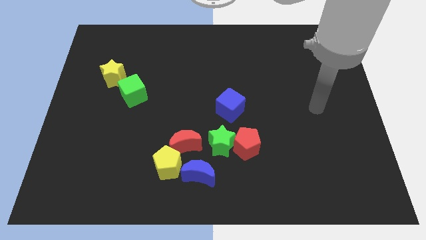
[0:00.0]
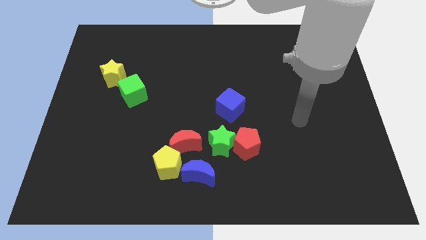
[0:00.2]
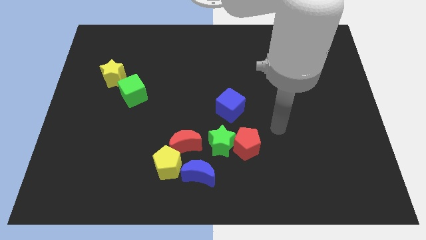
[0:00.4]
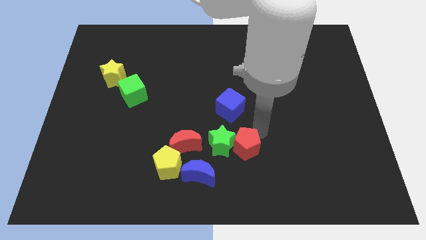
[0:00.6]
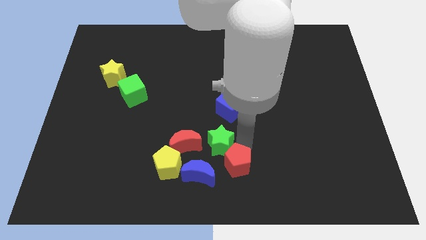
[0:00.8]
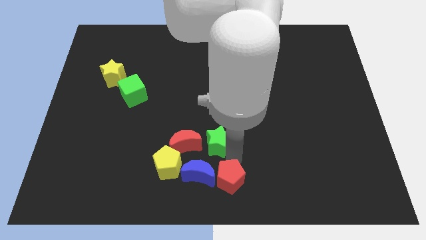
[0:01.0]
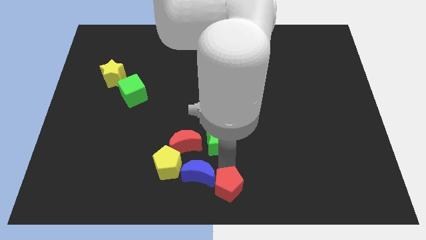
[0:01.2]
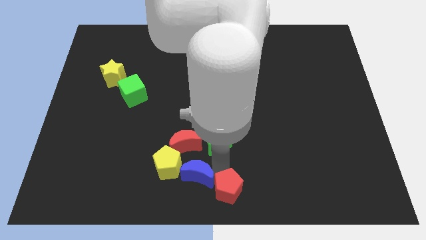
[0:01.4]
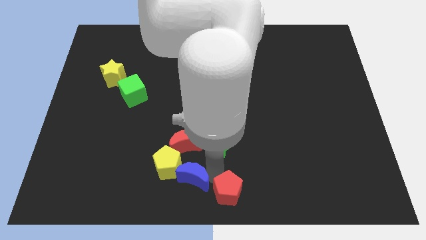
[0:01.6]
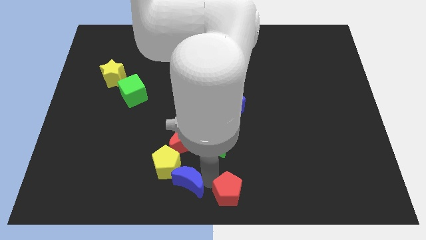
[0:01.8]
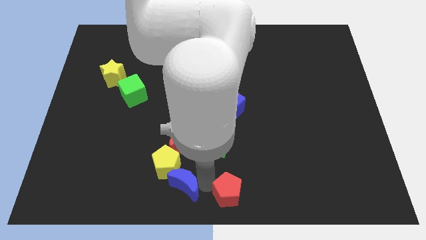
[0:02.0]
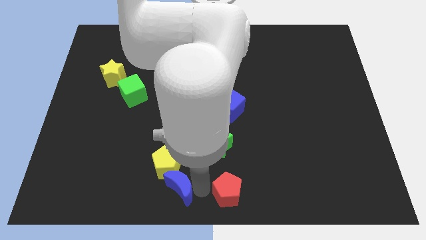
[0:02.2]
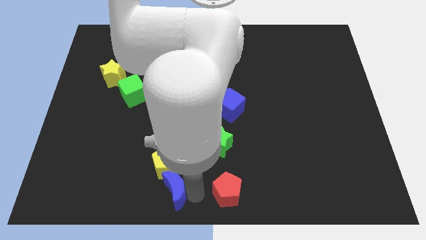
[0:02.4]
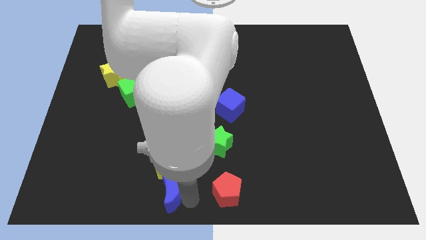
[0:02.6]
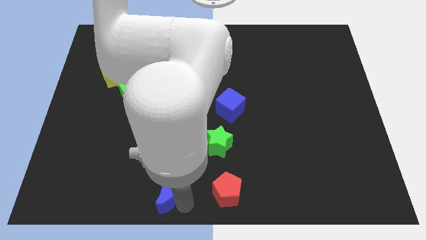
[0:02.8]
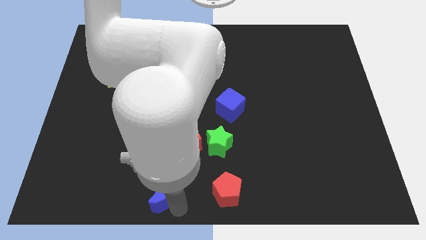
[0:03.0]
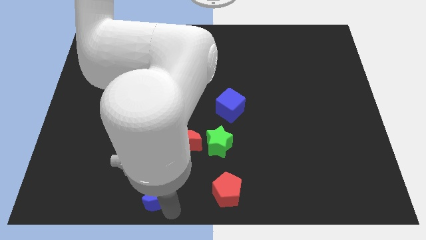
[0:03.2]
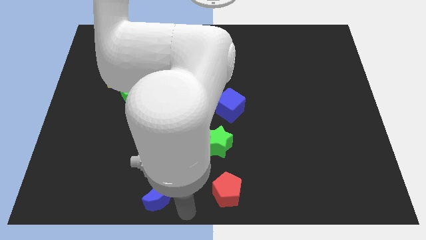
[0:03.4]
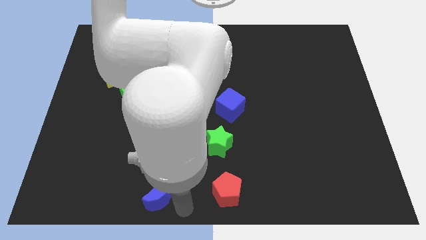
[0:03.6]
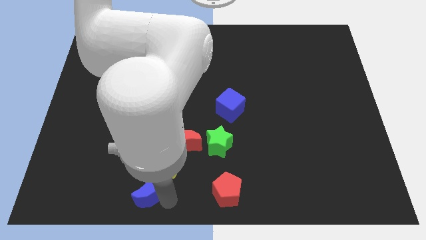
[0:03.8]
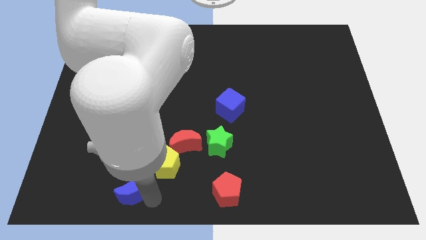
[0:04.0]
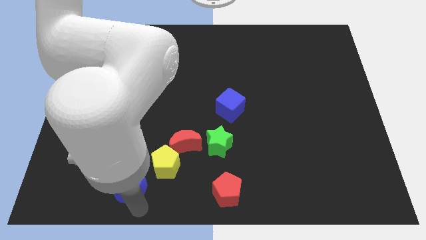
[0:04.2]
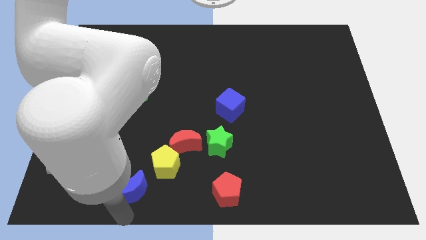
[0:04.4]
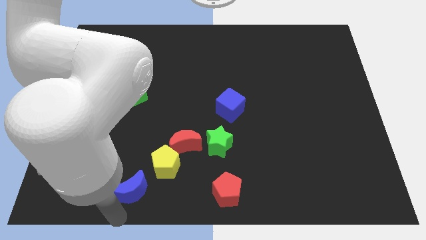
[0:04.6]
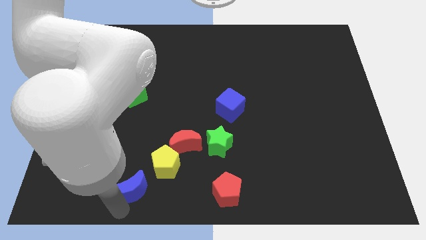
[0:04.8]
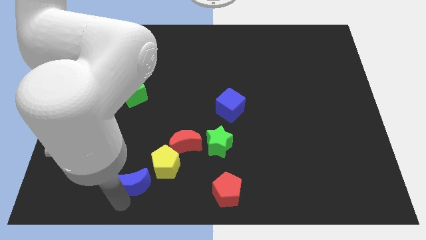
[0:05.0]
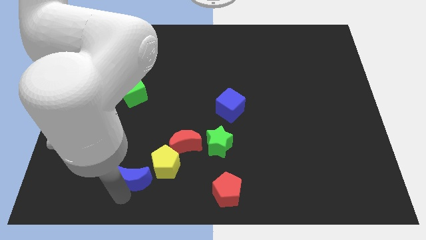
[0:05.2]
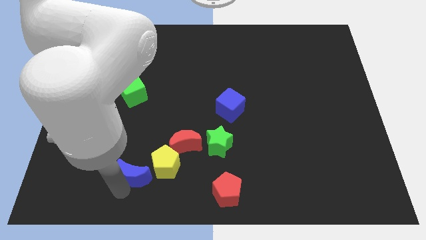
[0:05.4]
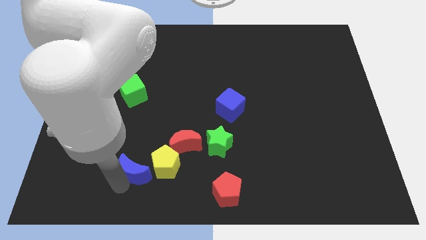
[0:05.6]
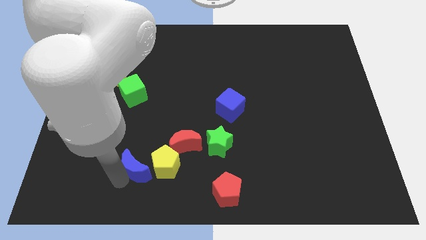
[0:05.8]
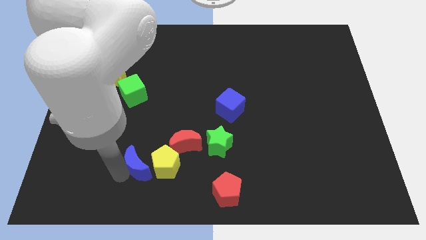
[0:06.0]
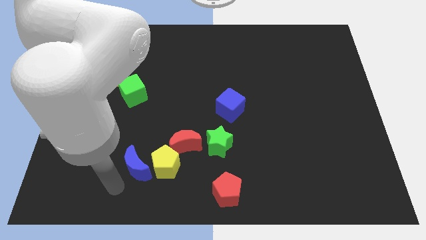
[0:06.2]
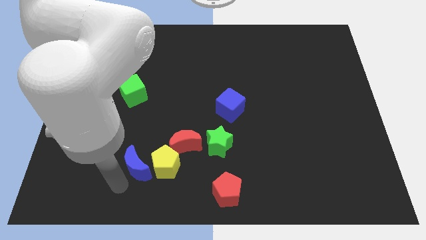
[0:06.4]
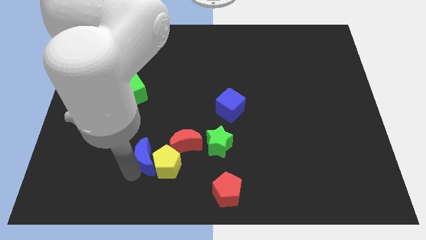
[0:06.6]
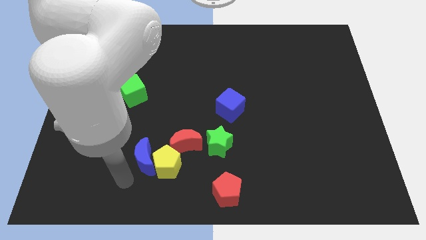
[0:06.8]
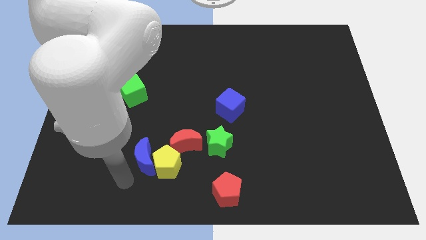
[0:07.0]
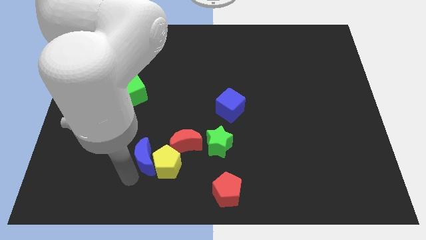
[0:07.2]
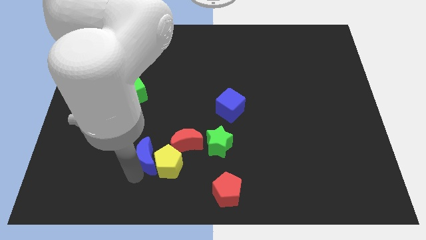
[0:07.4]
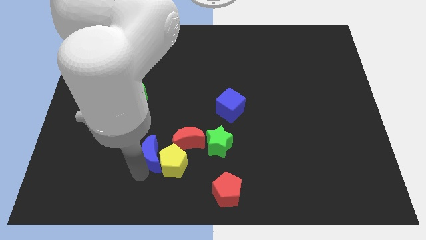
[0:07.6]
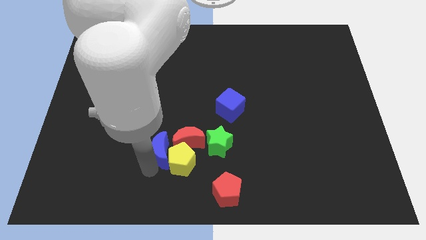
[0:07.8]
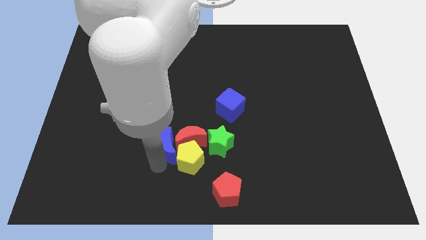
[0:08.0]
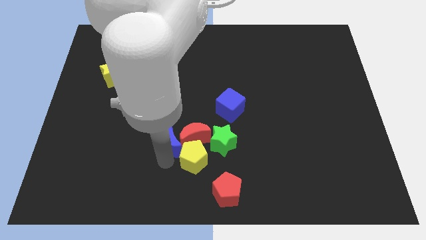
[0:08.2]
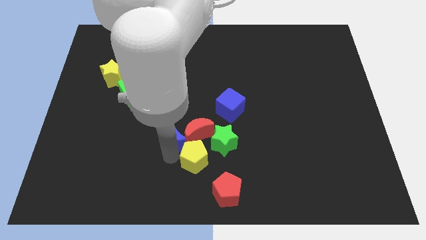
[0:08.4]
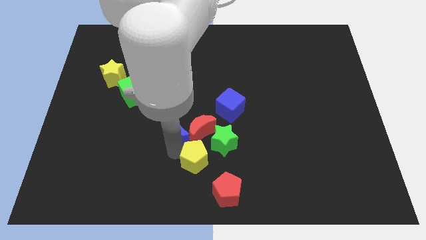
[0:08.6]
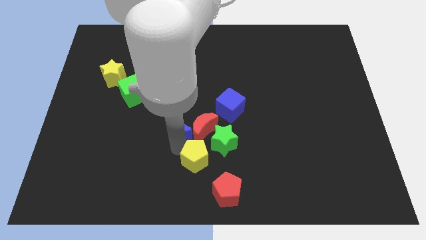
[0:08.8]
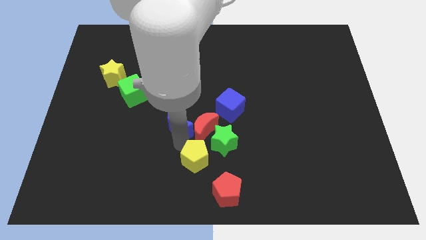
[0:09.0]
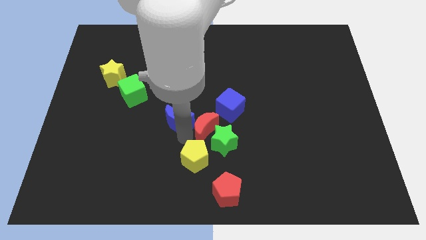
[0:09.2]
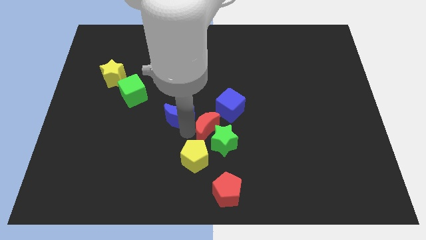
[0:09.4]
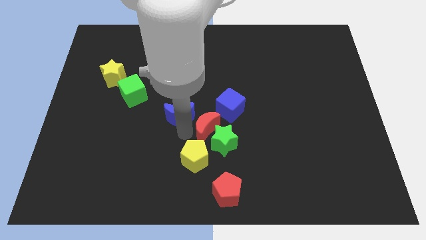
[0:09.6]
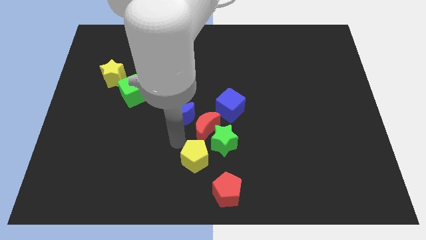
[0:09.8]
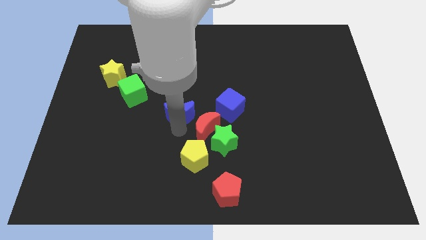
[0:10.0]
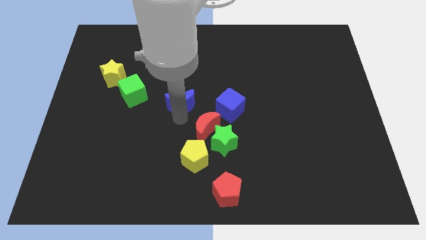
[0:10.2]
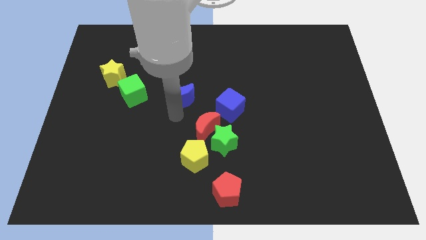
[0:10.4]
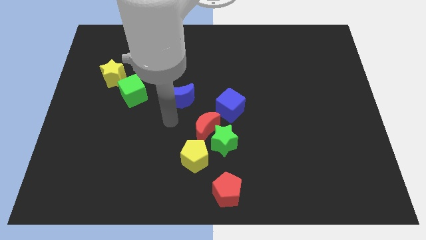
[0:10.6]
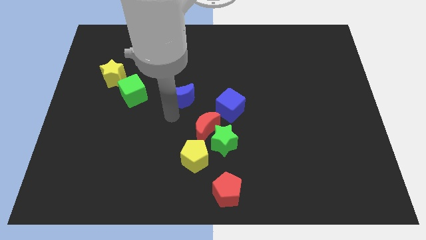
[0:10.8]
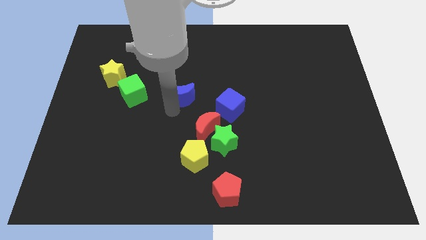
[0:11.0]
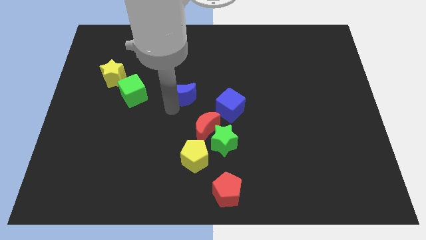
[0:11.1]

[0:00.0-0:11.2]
push the blue moon upwards

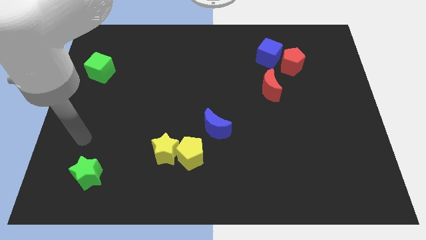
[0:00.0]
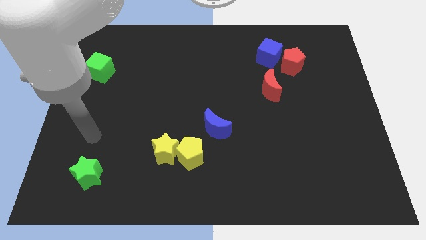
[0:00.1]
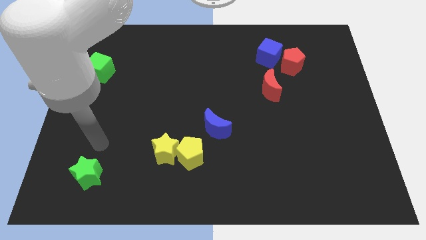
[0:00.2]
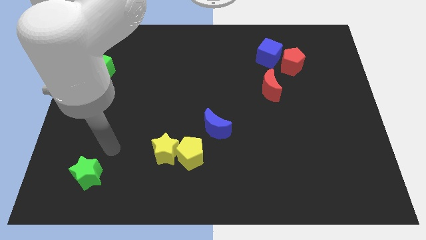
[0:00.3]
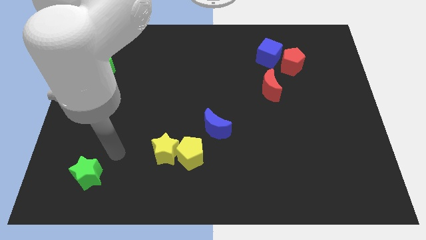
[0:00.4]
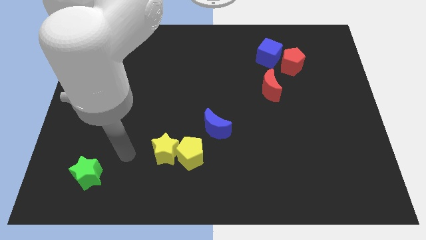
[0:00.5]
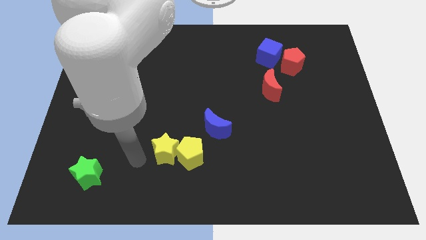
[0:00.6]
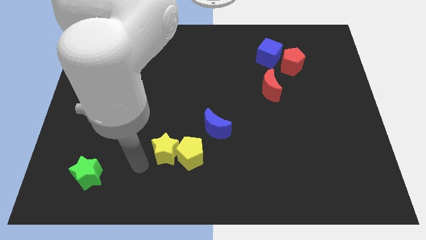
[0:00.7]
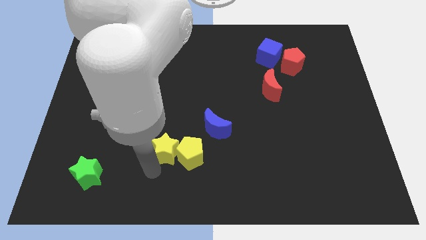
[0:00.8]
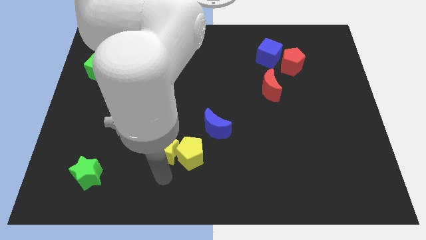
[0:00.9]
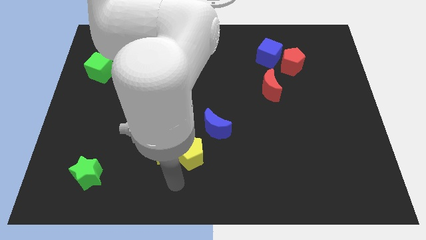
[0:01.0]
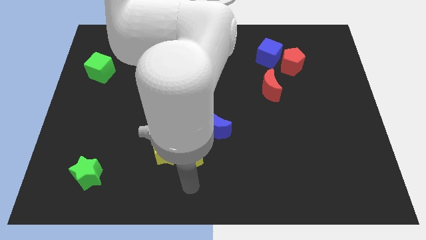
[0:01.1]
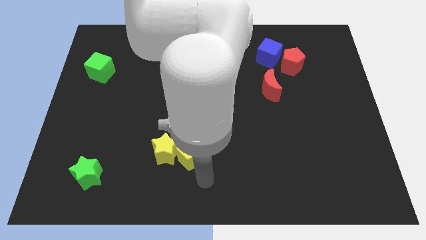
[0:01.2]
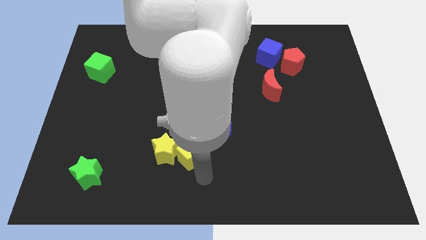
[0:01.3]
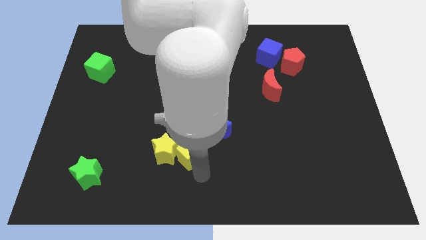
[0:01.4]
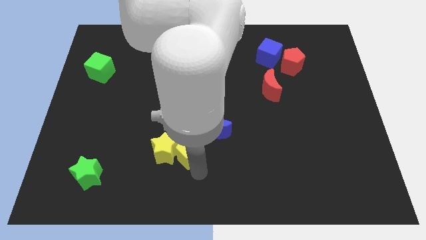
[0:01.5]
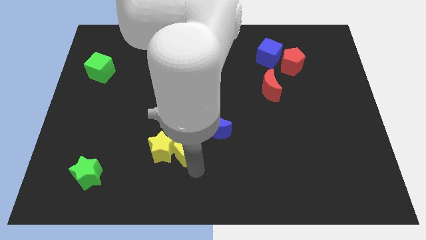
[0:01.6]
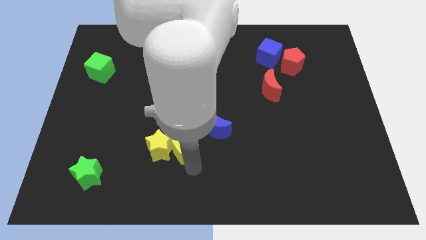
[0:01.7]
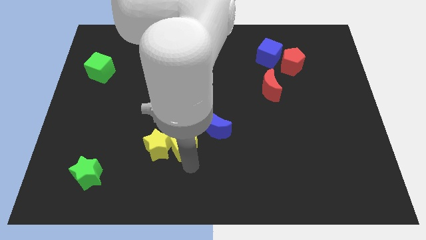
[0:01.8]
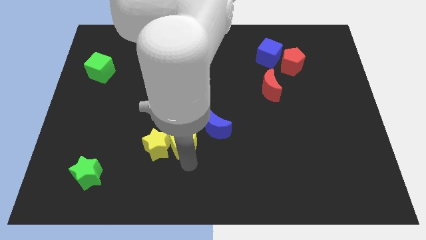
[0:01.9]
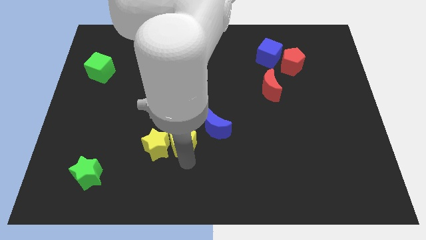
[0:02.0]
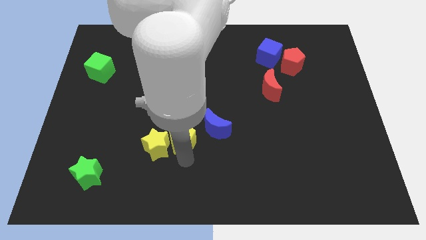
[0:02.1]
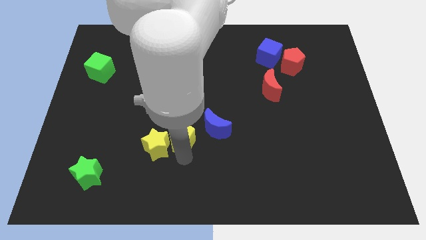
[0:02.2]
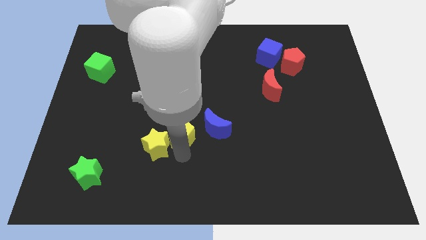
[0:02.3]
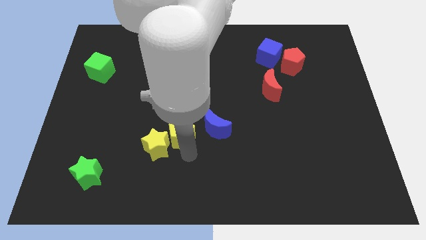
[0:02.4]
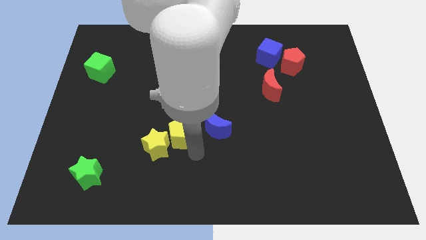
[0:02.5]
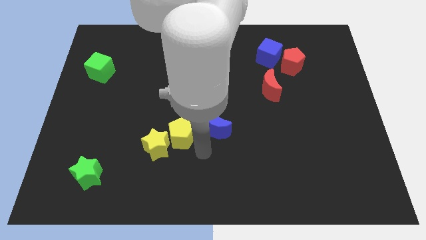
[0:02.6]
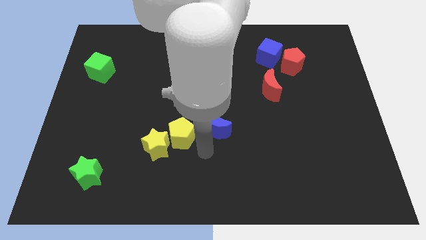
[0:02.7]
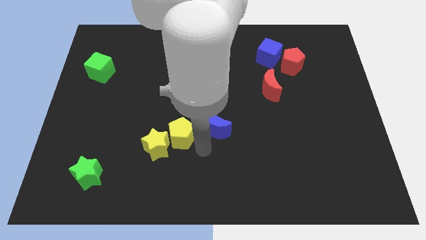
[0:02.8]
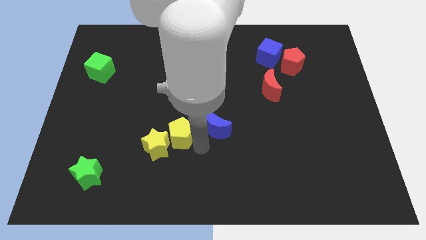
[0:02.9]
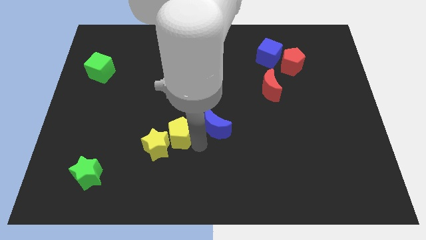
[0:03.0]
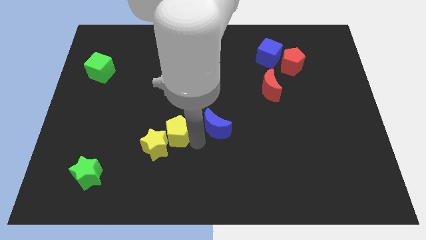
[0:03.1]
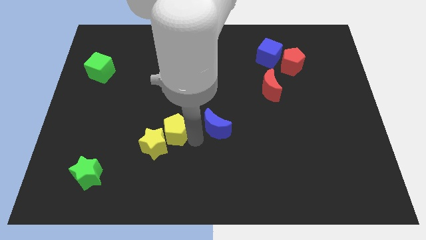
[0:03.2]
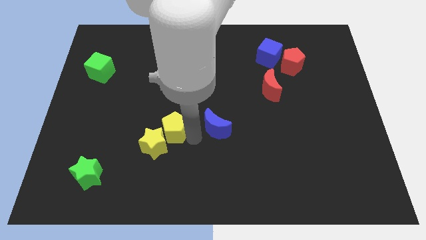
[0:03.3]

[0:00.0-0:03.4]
slightly slide the yellow pentagon upwards and then to the left
